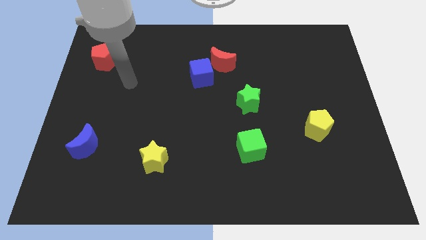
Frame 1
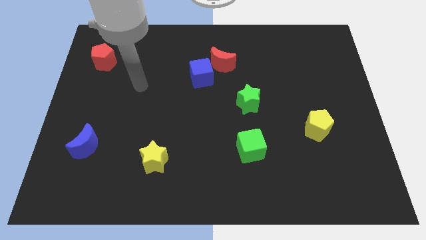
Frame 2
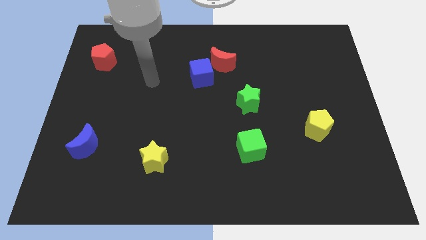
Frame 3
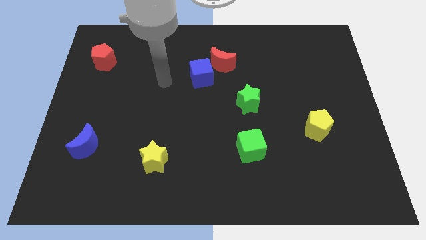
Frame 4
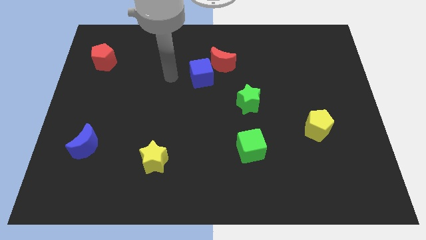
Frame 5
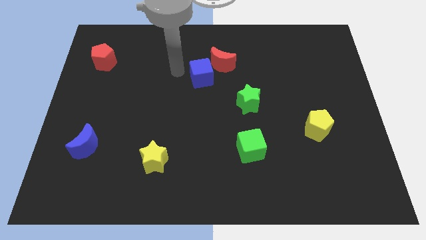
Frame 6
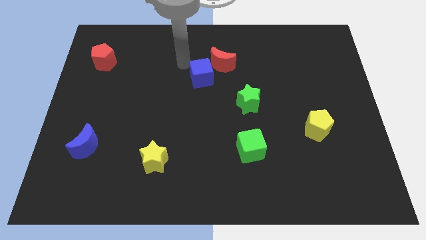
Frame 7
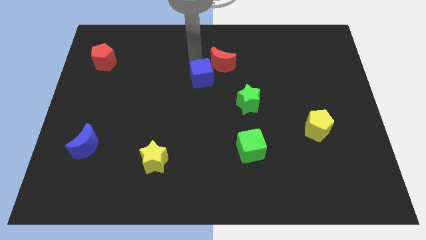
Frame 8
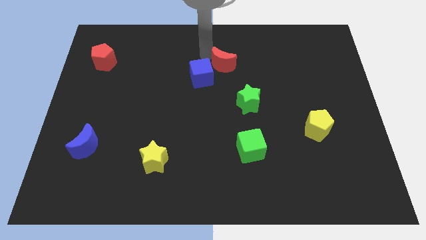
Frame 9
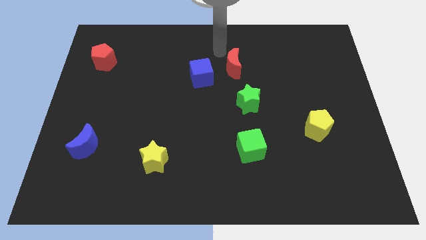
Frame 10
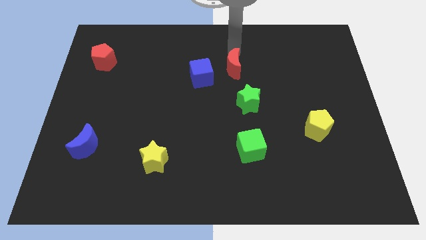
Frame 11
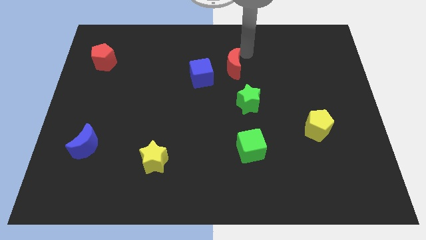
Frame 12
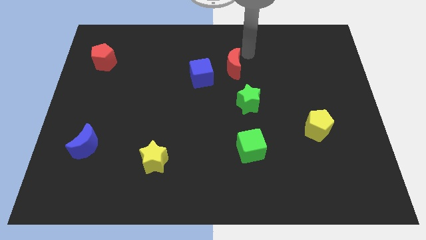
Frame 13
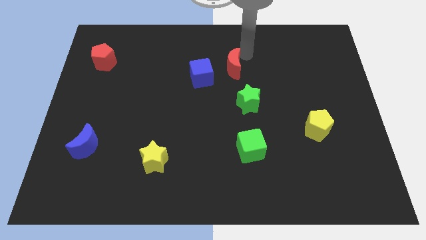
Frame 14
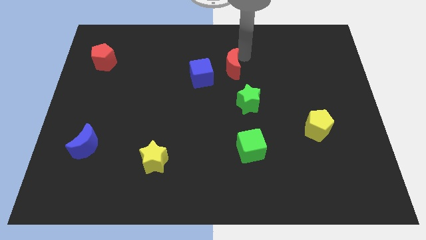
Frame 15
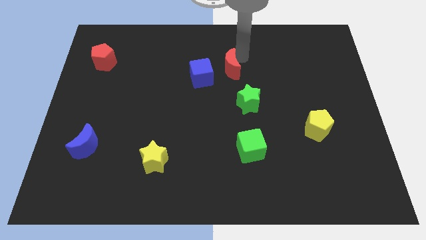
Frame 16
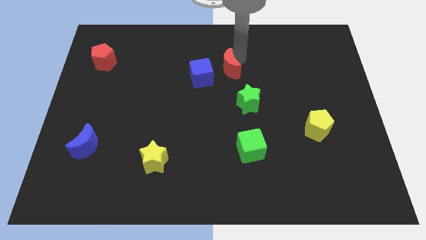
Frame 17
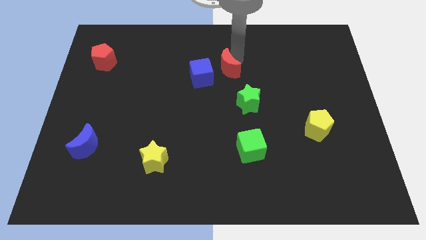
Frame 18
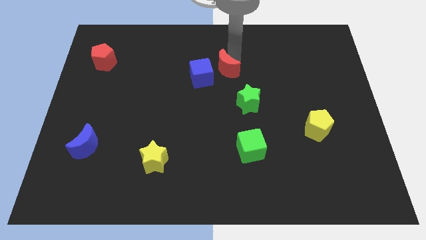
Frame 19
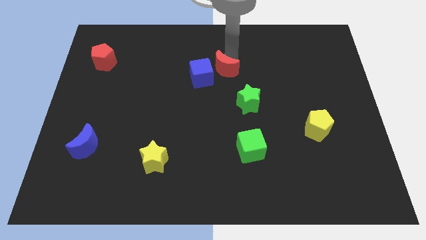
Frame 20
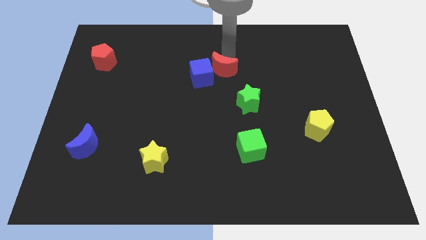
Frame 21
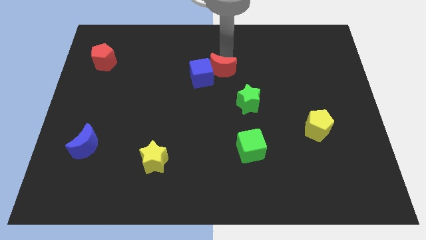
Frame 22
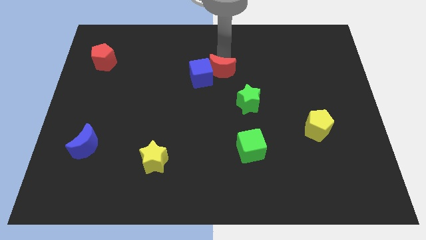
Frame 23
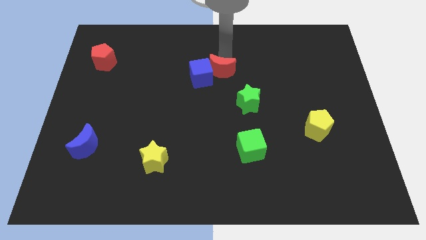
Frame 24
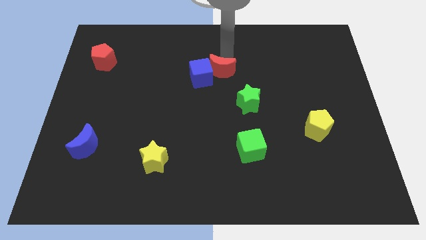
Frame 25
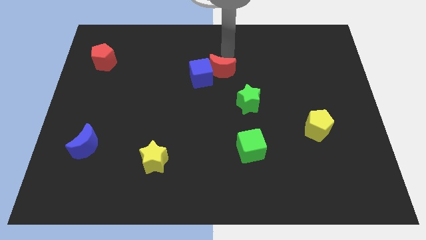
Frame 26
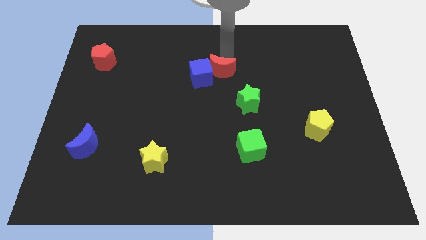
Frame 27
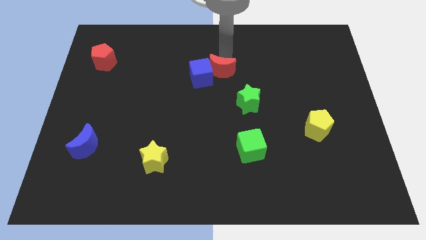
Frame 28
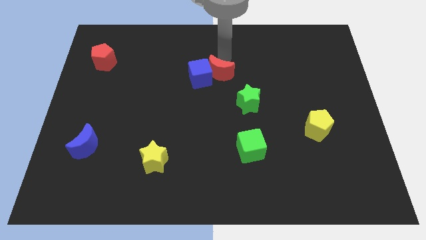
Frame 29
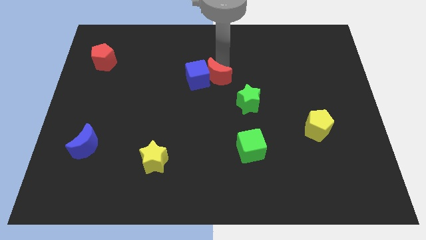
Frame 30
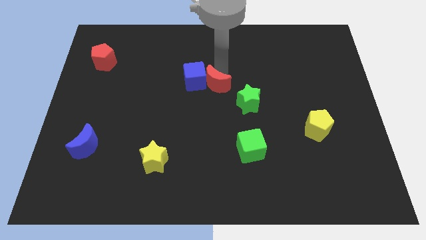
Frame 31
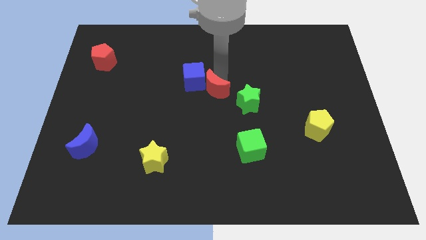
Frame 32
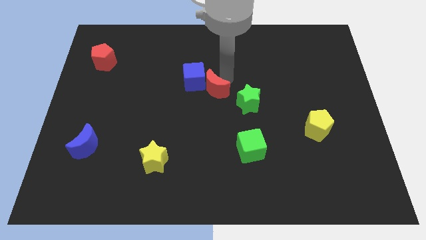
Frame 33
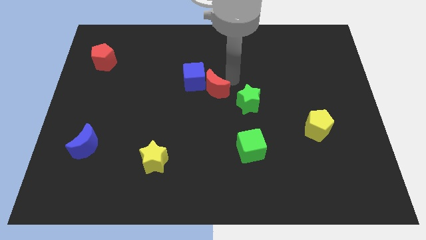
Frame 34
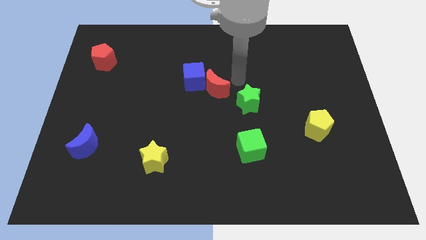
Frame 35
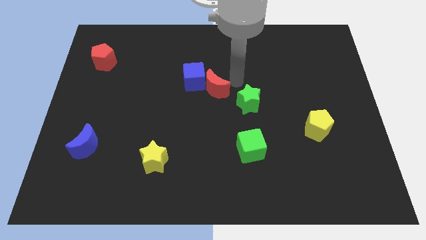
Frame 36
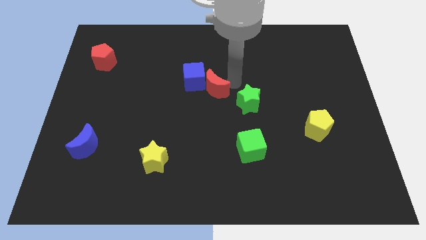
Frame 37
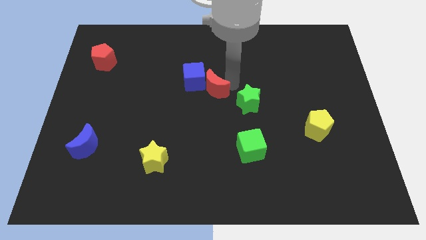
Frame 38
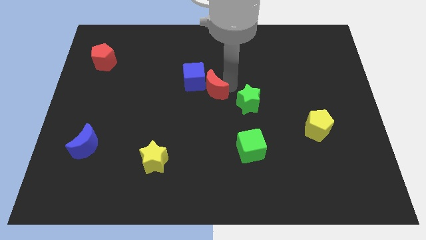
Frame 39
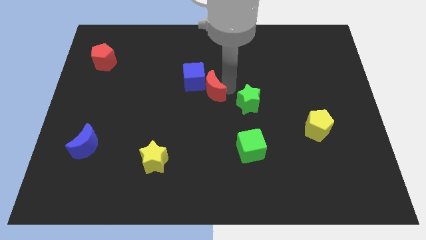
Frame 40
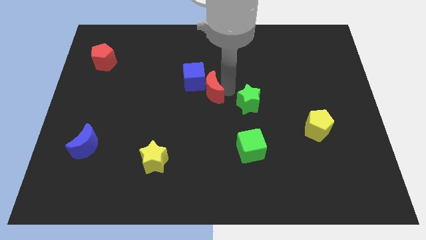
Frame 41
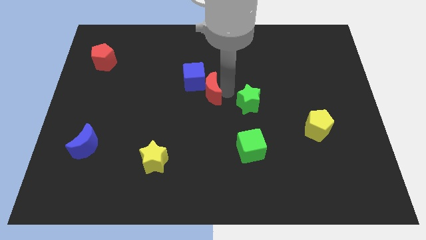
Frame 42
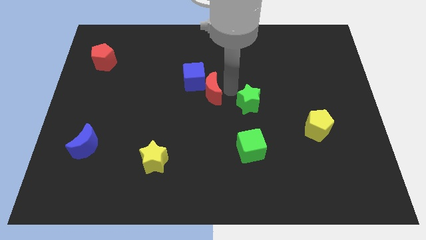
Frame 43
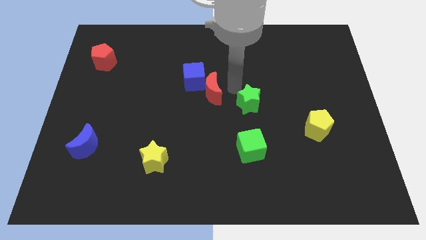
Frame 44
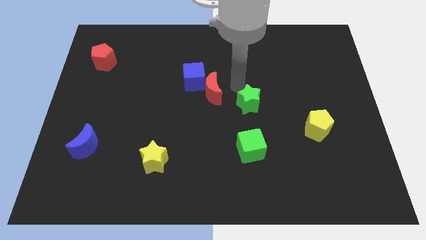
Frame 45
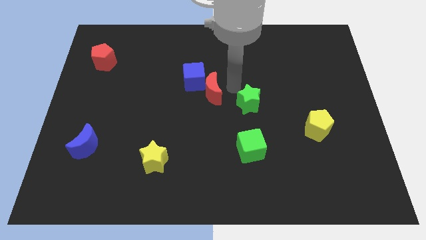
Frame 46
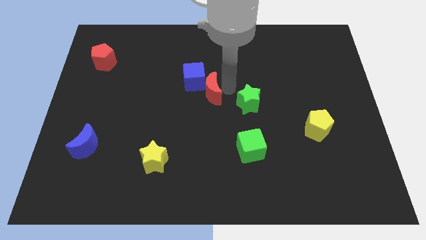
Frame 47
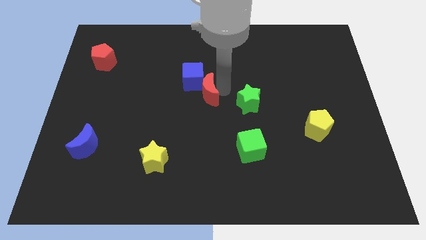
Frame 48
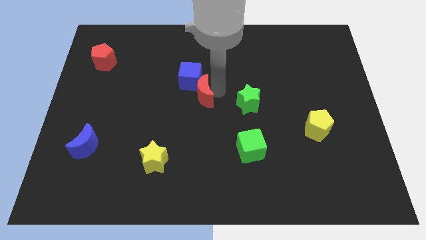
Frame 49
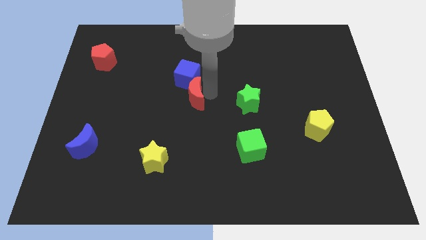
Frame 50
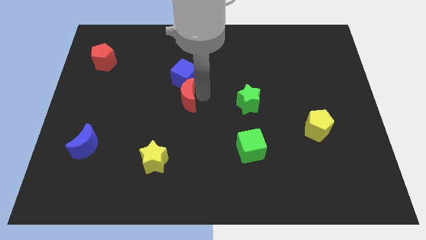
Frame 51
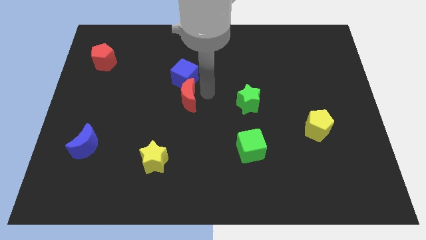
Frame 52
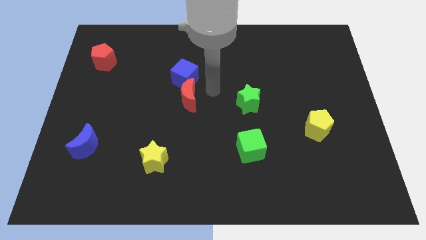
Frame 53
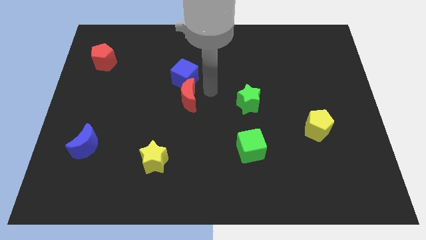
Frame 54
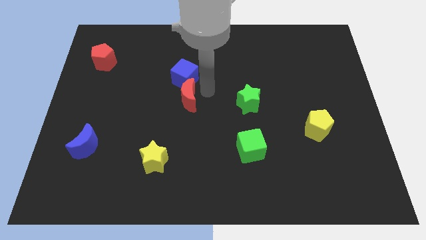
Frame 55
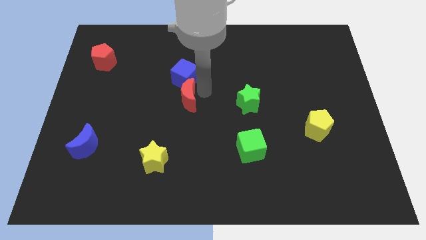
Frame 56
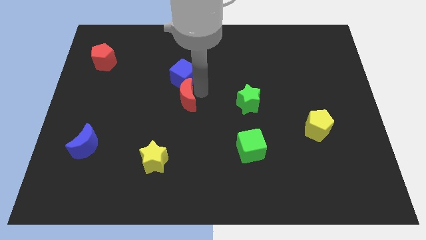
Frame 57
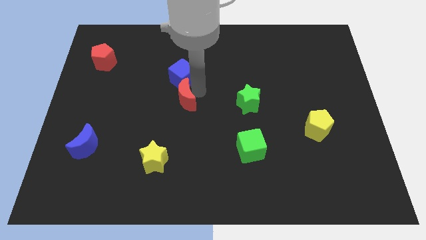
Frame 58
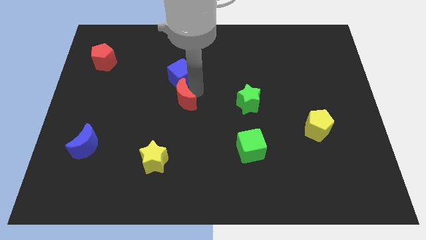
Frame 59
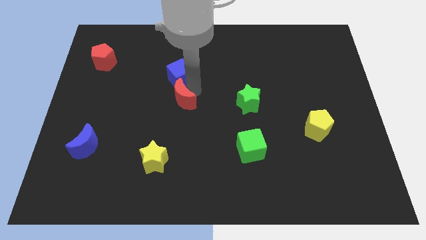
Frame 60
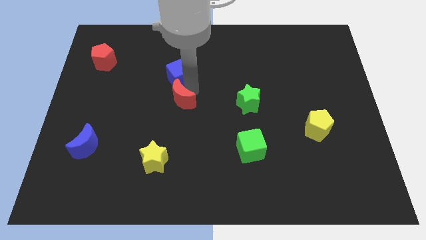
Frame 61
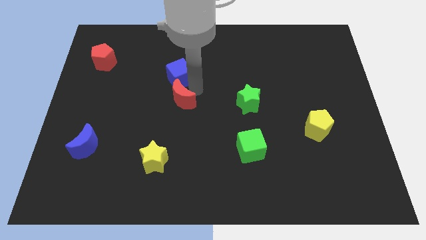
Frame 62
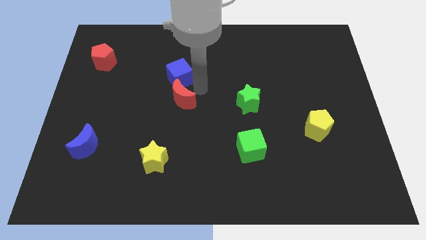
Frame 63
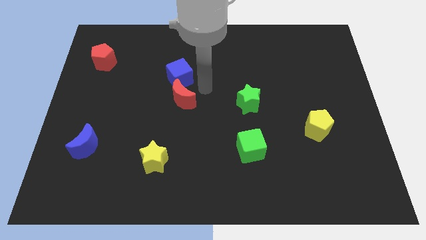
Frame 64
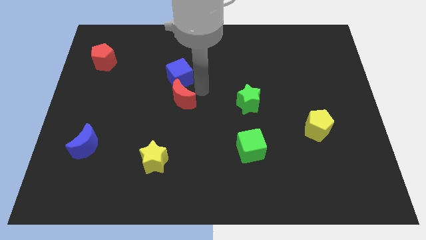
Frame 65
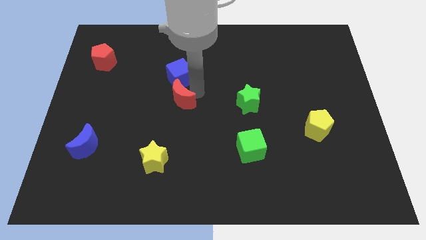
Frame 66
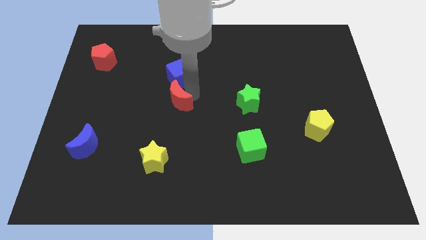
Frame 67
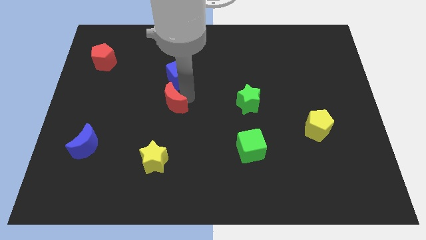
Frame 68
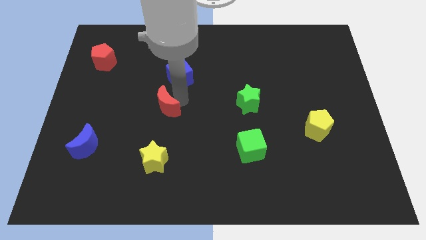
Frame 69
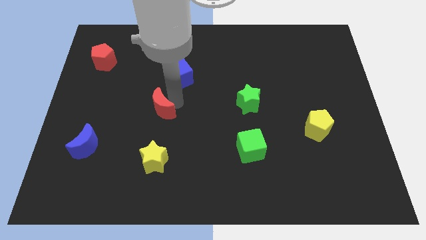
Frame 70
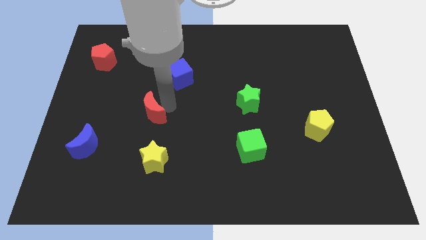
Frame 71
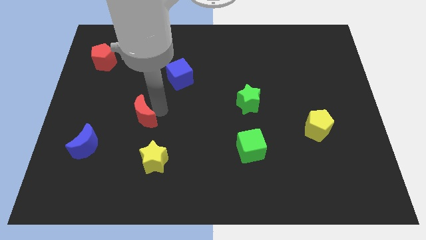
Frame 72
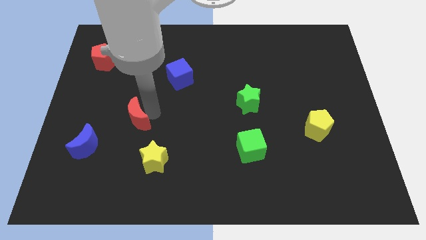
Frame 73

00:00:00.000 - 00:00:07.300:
slide the red moon to the top right side of the blue moon

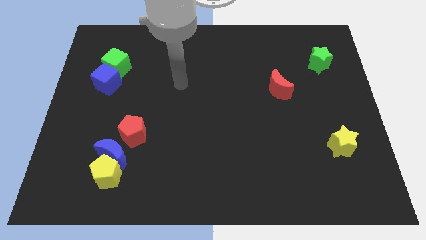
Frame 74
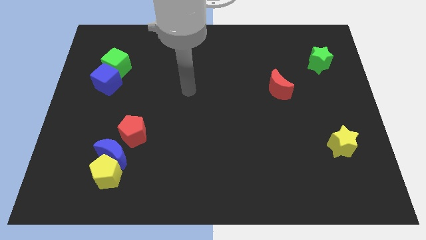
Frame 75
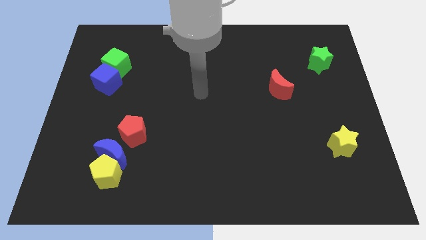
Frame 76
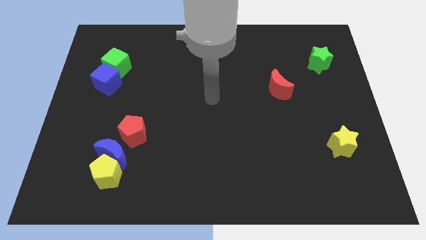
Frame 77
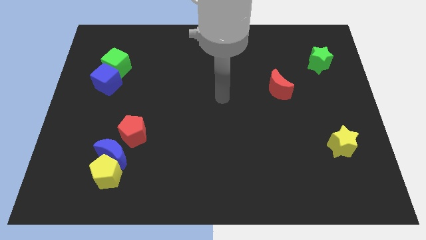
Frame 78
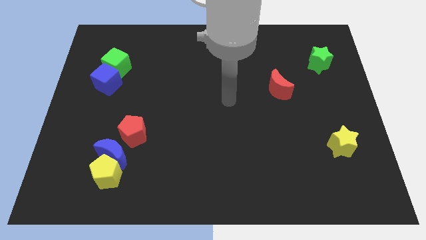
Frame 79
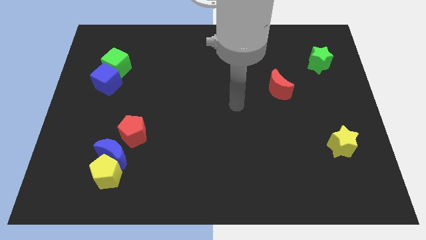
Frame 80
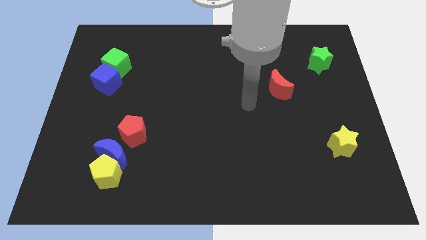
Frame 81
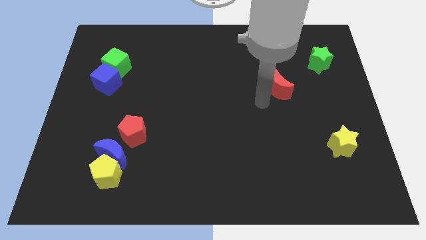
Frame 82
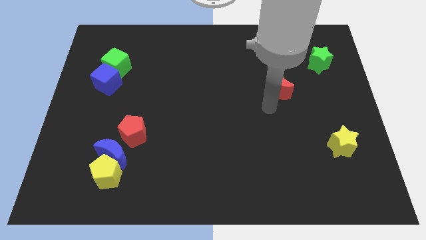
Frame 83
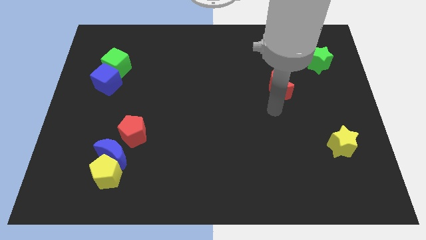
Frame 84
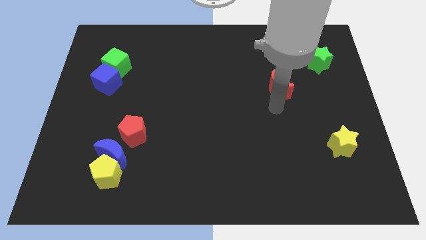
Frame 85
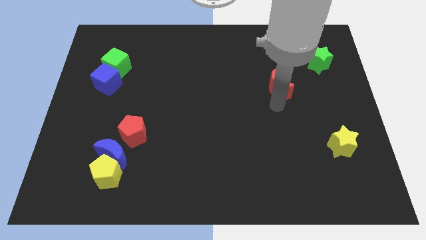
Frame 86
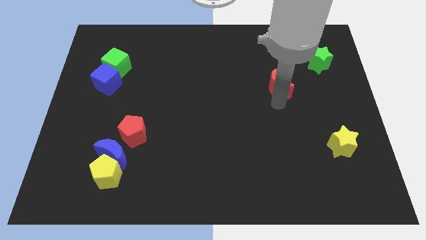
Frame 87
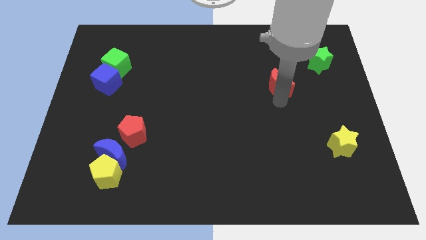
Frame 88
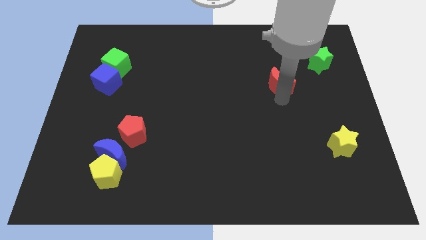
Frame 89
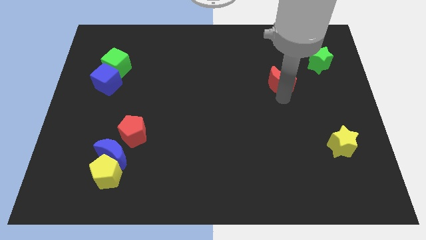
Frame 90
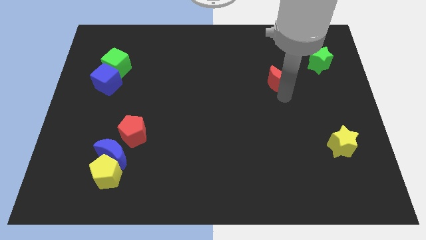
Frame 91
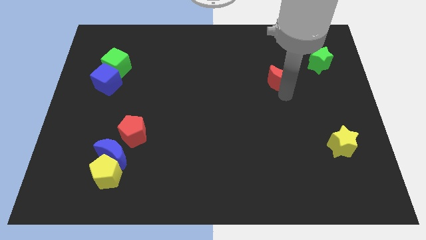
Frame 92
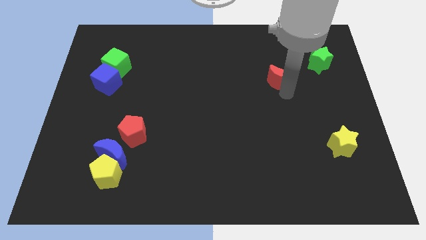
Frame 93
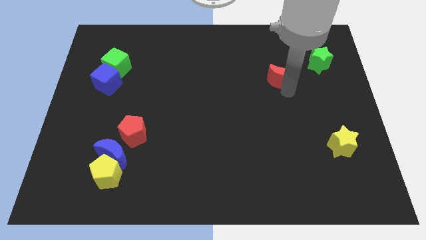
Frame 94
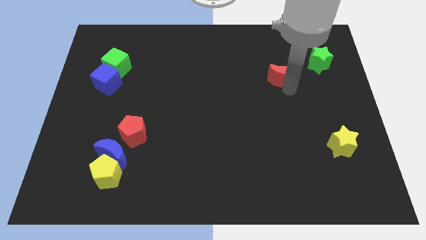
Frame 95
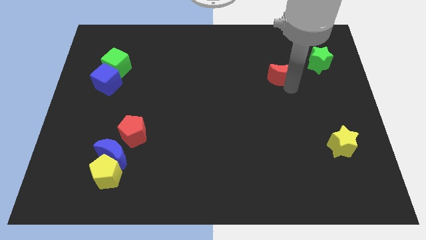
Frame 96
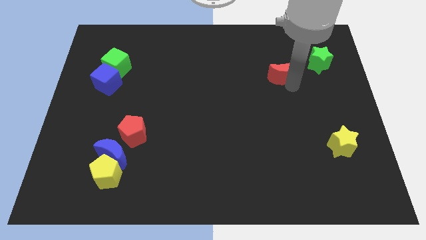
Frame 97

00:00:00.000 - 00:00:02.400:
move the red moon to the left side of the green star
